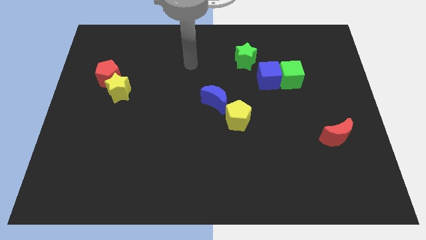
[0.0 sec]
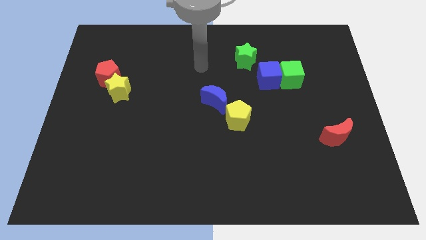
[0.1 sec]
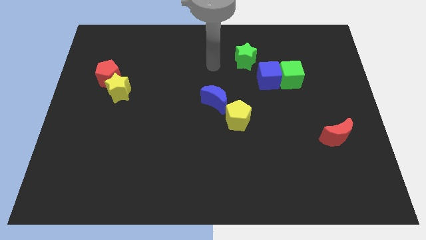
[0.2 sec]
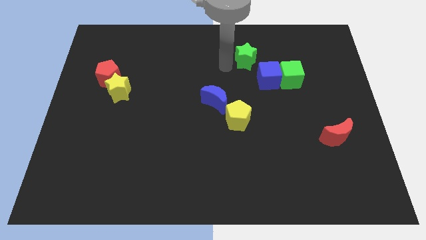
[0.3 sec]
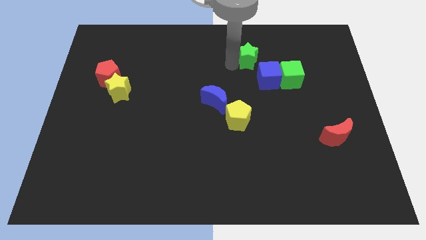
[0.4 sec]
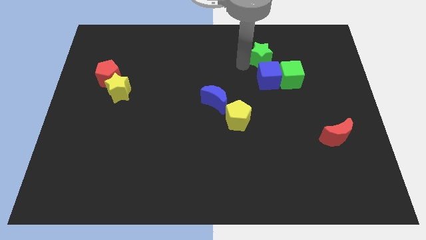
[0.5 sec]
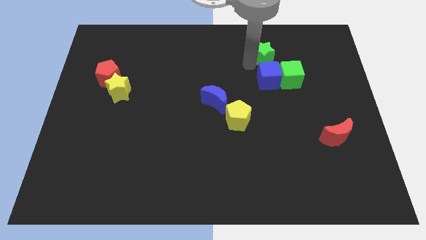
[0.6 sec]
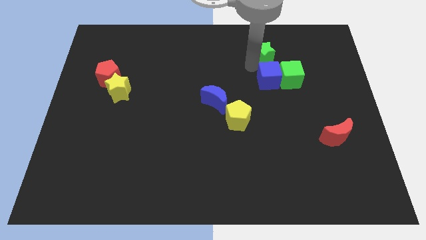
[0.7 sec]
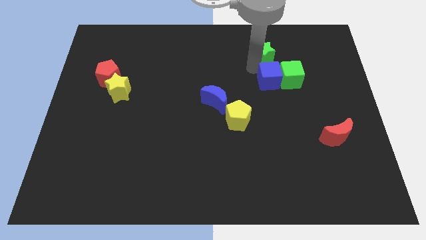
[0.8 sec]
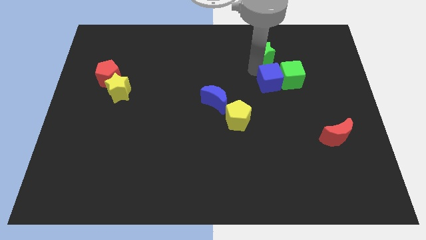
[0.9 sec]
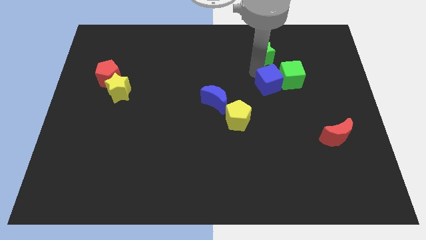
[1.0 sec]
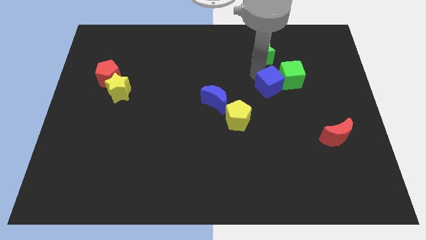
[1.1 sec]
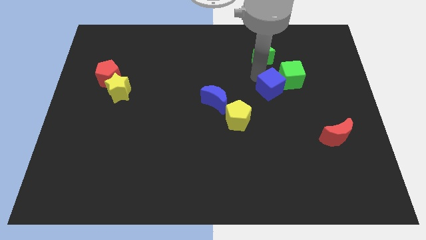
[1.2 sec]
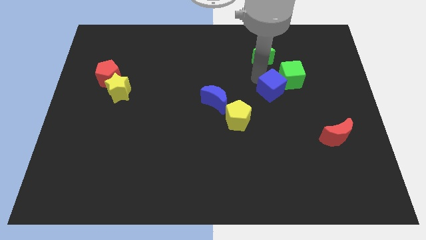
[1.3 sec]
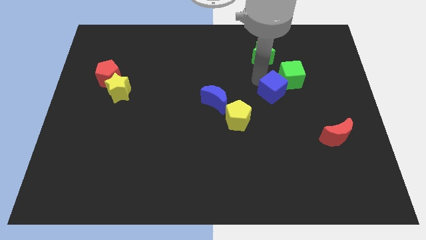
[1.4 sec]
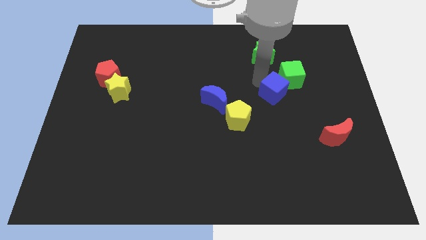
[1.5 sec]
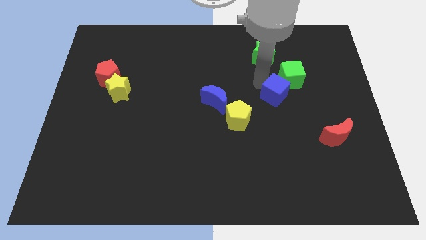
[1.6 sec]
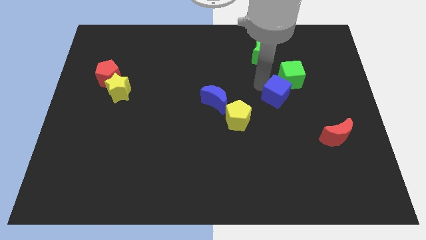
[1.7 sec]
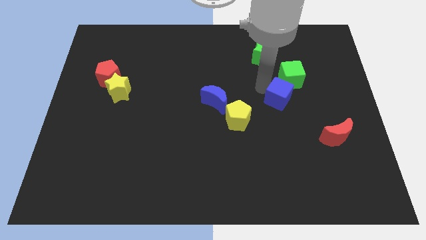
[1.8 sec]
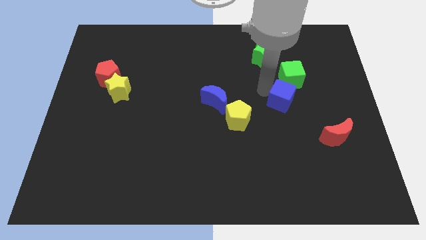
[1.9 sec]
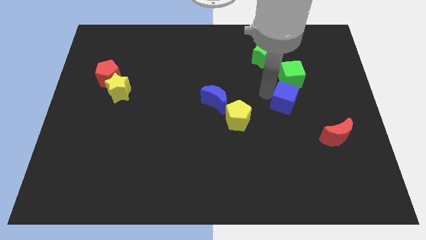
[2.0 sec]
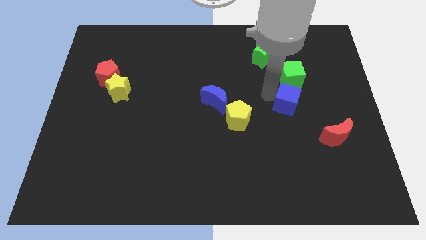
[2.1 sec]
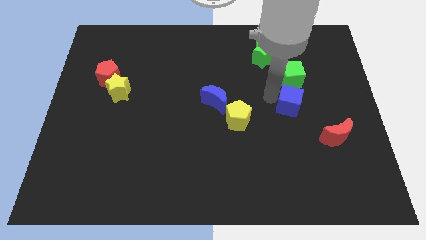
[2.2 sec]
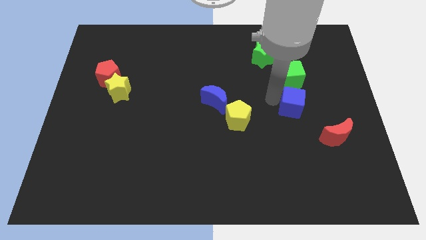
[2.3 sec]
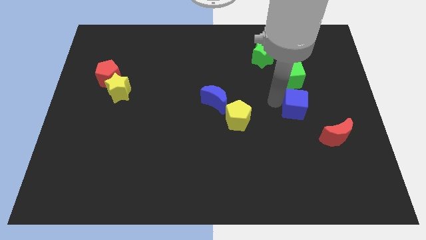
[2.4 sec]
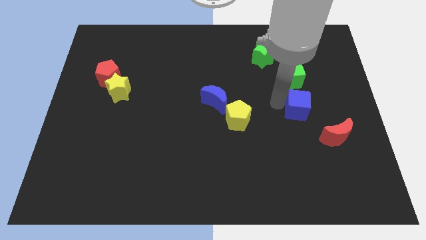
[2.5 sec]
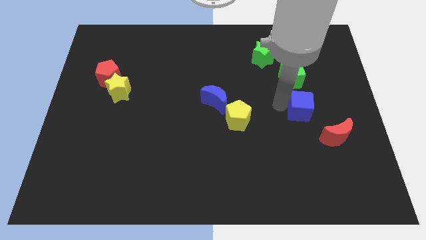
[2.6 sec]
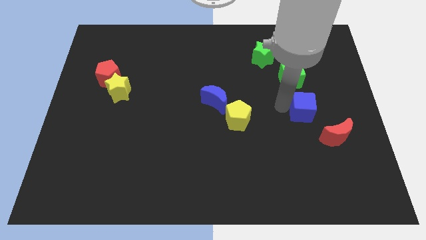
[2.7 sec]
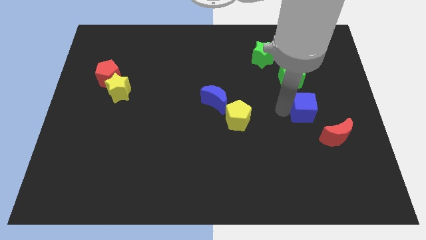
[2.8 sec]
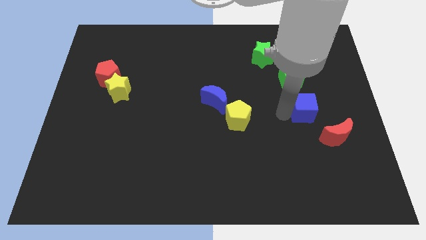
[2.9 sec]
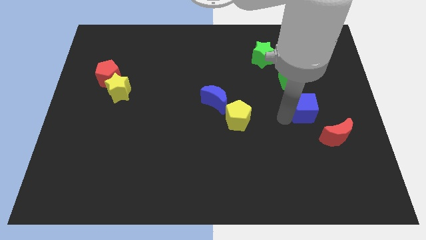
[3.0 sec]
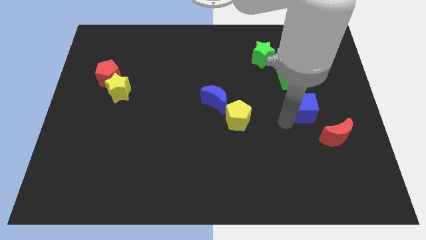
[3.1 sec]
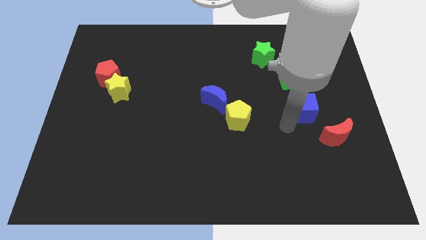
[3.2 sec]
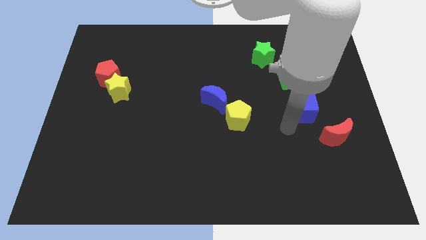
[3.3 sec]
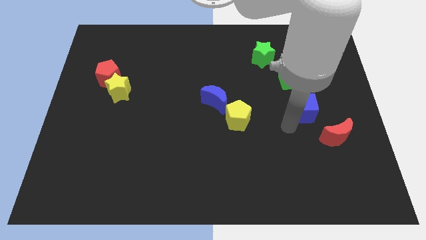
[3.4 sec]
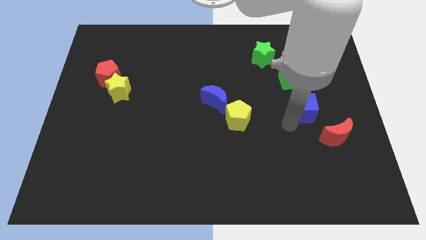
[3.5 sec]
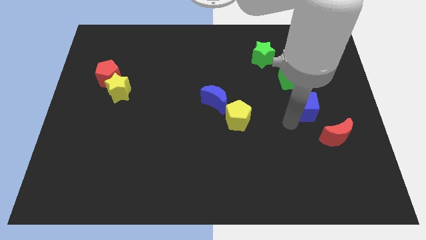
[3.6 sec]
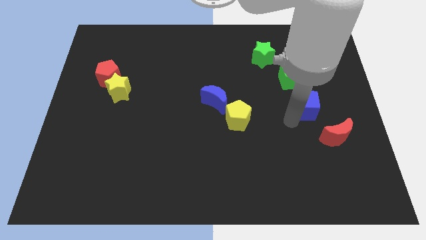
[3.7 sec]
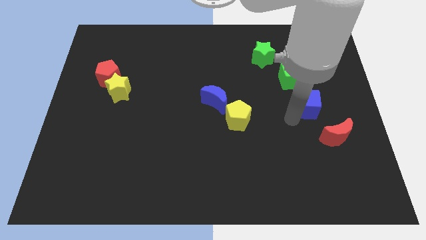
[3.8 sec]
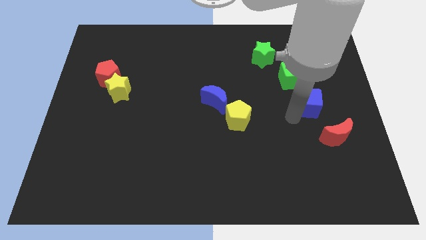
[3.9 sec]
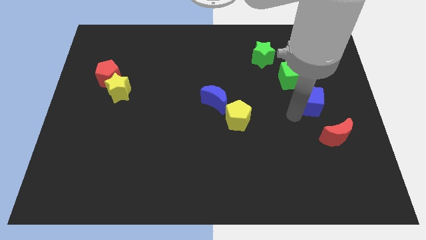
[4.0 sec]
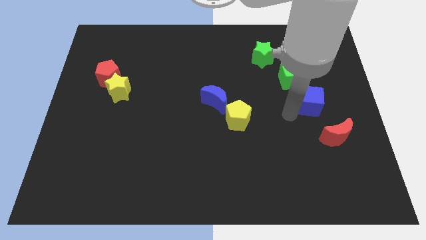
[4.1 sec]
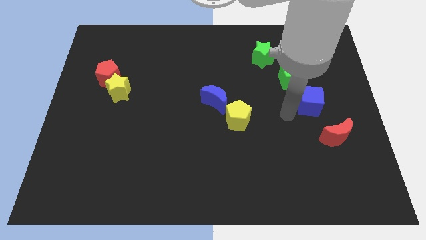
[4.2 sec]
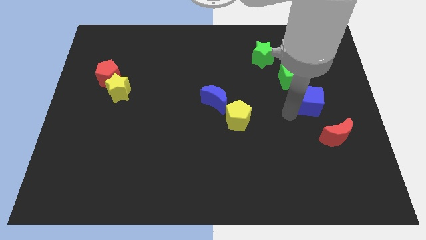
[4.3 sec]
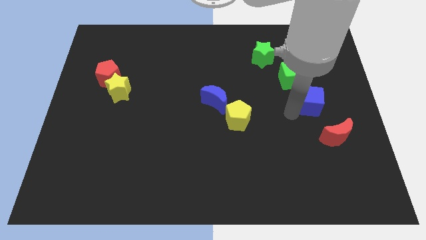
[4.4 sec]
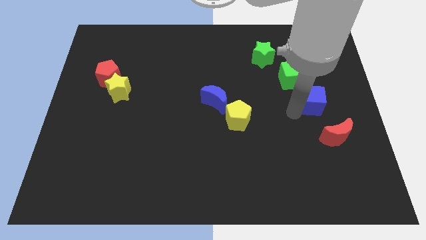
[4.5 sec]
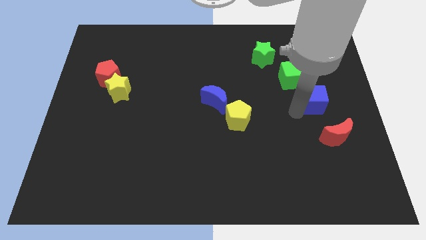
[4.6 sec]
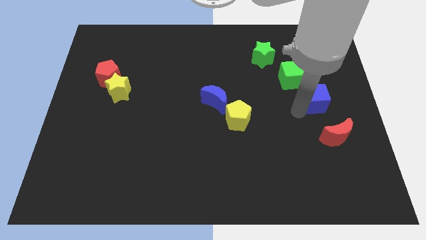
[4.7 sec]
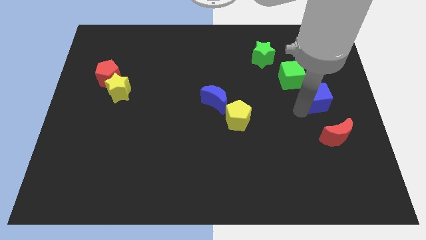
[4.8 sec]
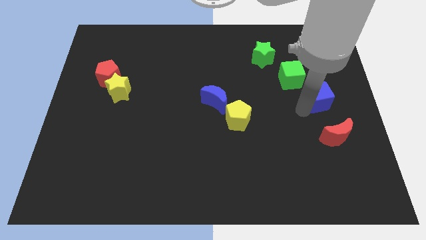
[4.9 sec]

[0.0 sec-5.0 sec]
slide the blue cube to the center right

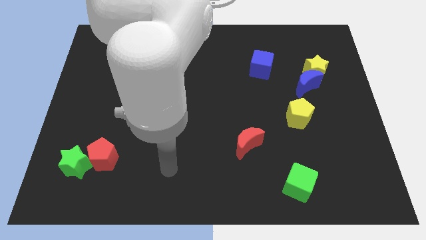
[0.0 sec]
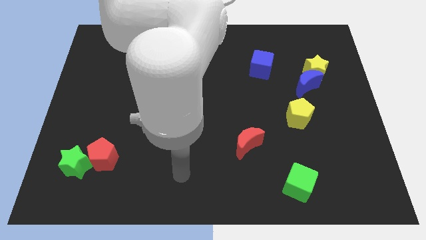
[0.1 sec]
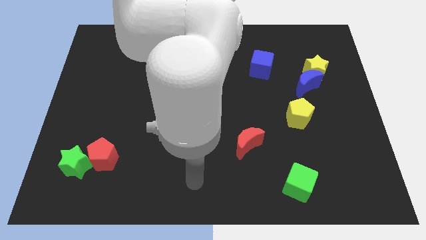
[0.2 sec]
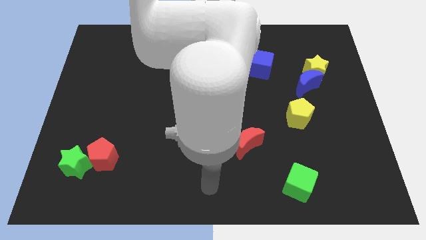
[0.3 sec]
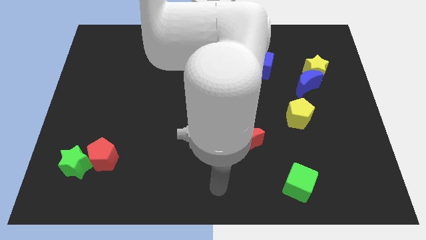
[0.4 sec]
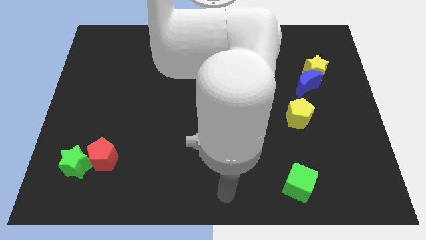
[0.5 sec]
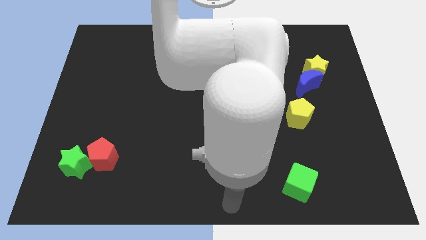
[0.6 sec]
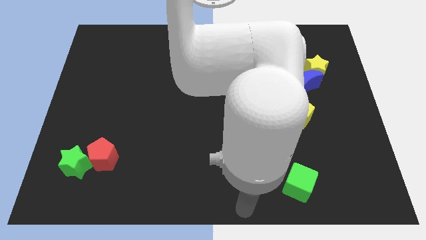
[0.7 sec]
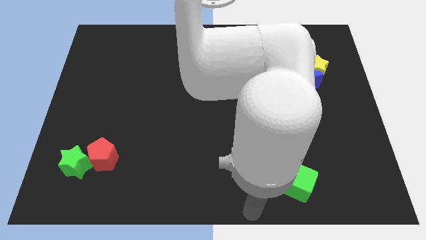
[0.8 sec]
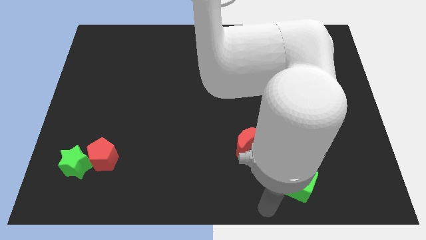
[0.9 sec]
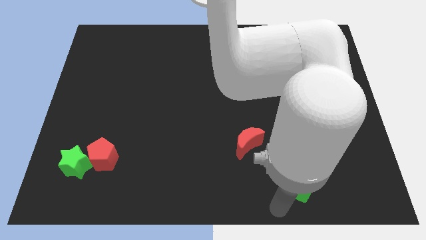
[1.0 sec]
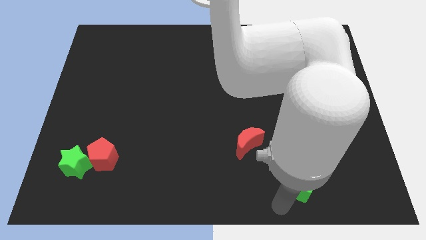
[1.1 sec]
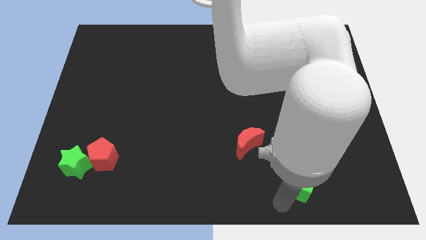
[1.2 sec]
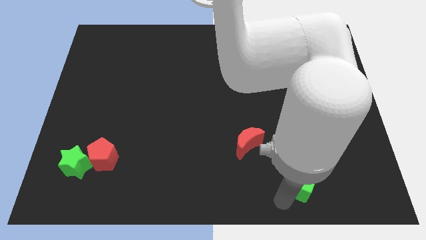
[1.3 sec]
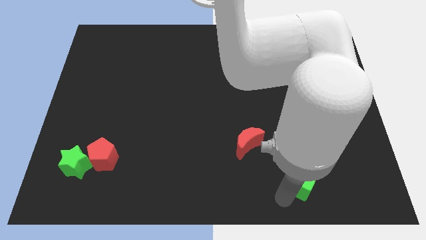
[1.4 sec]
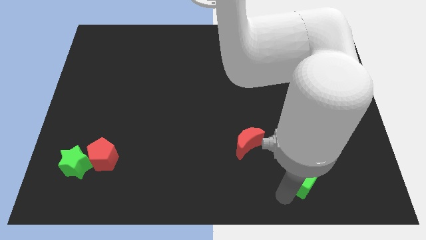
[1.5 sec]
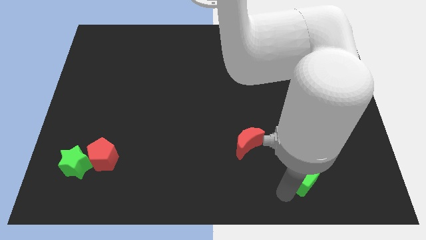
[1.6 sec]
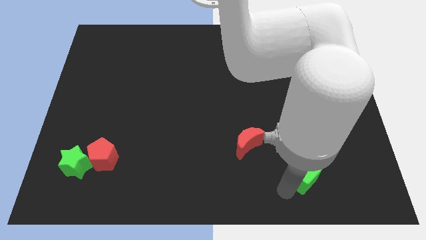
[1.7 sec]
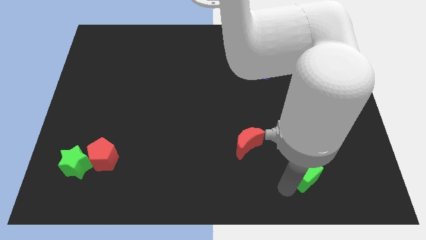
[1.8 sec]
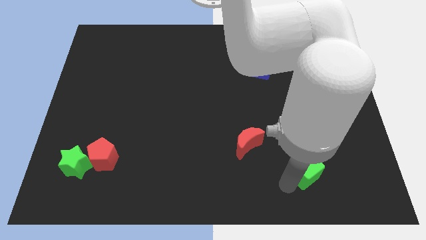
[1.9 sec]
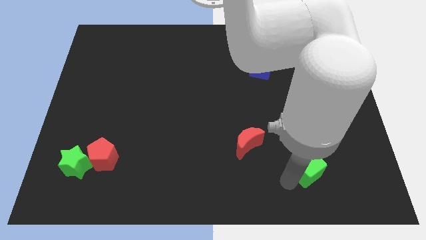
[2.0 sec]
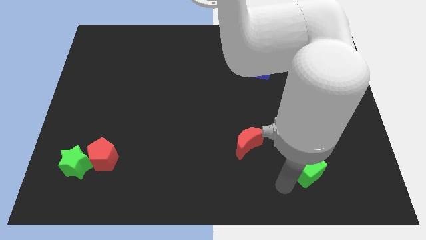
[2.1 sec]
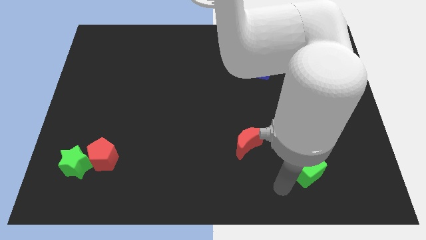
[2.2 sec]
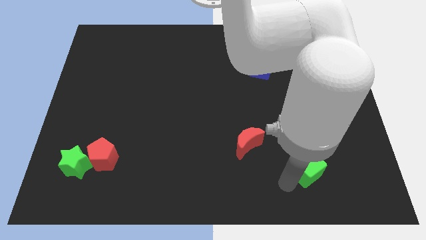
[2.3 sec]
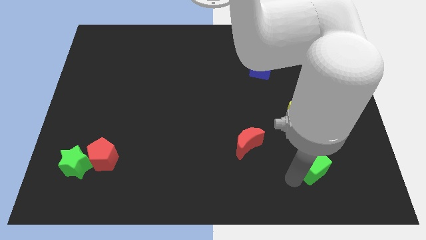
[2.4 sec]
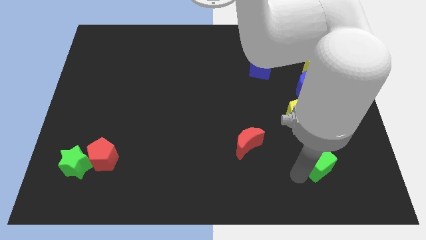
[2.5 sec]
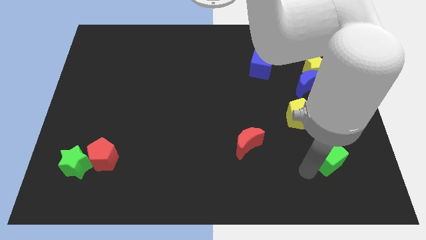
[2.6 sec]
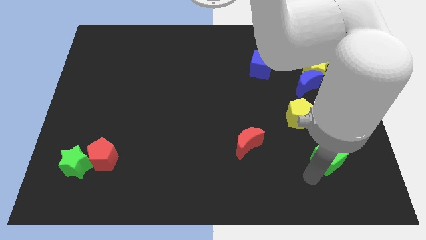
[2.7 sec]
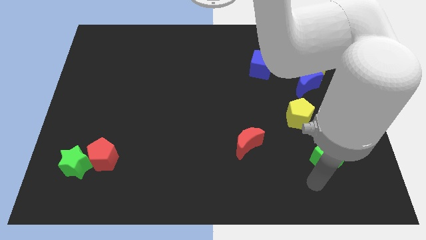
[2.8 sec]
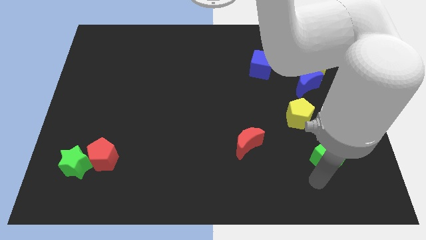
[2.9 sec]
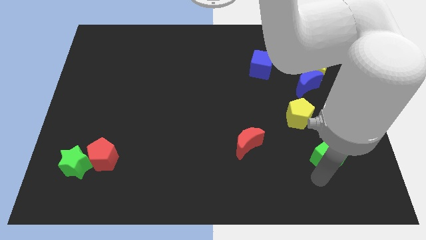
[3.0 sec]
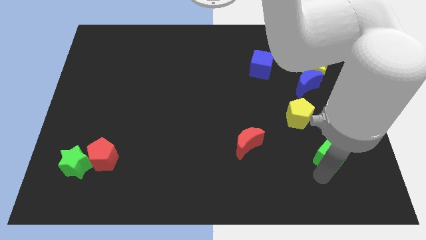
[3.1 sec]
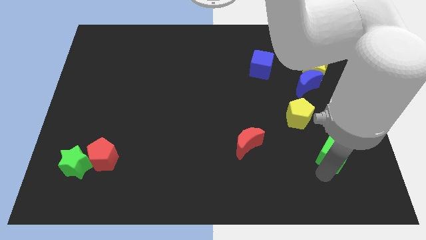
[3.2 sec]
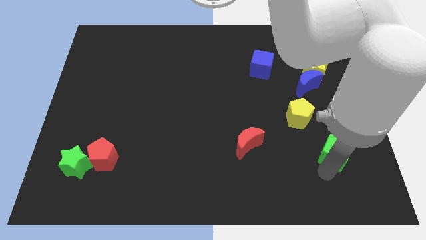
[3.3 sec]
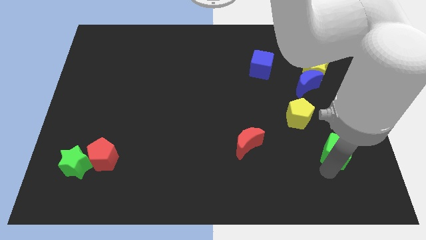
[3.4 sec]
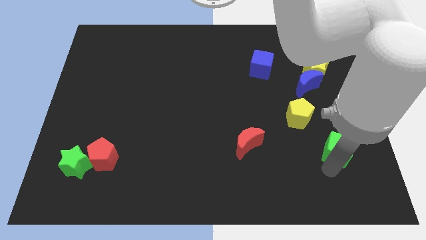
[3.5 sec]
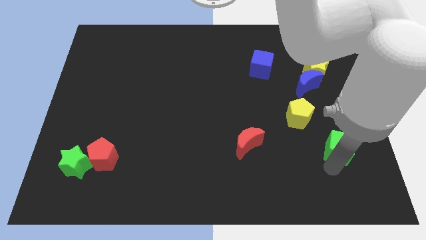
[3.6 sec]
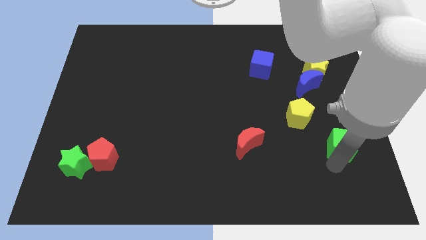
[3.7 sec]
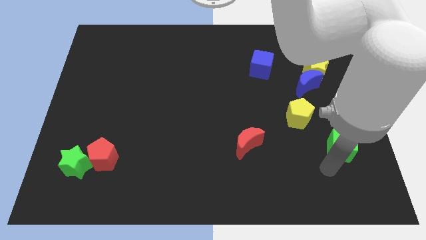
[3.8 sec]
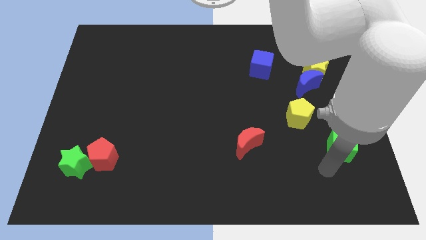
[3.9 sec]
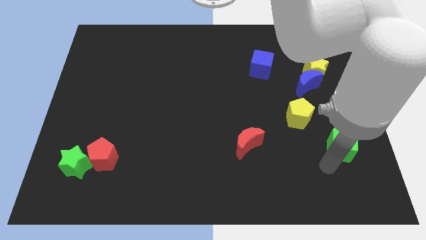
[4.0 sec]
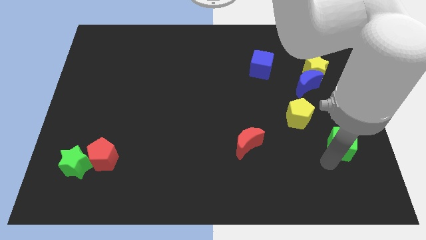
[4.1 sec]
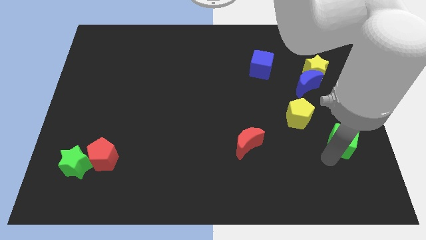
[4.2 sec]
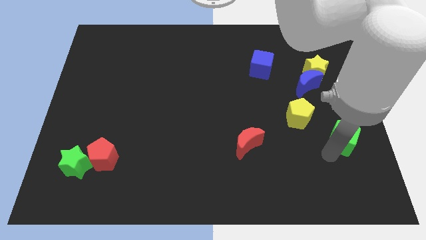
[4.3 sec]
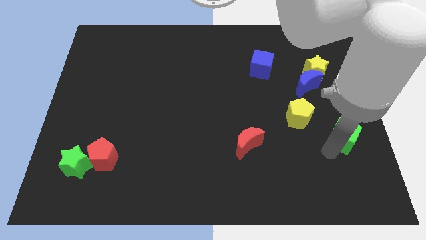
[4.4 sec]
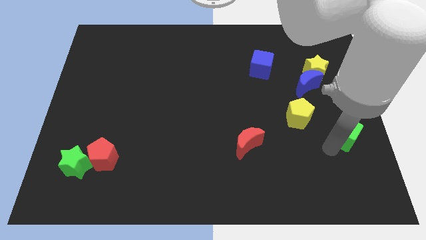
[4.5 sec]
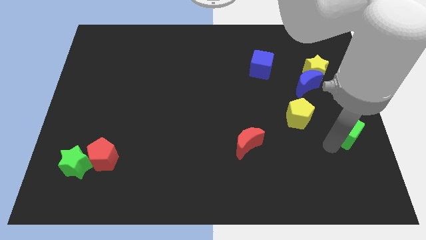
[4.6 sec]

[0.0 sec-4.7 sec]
put the green cube to the right side of the board
